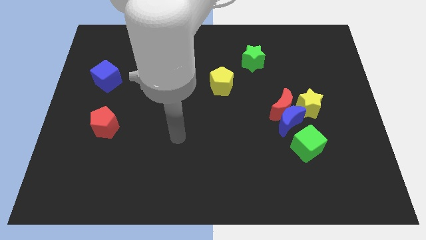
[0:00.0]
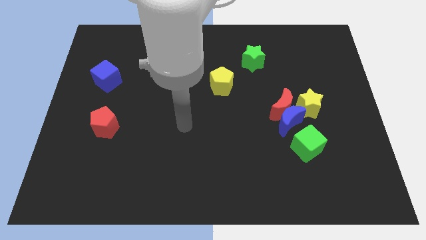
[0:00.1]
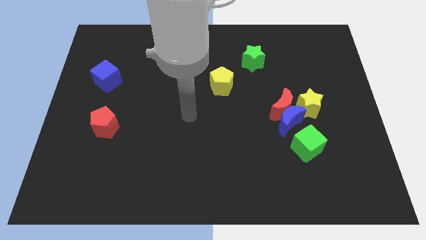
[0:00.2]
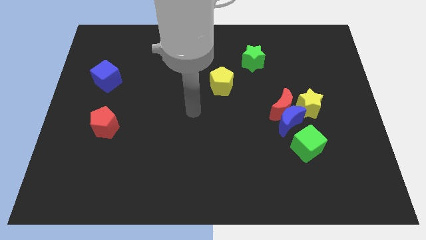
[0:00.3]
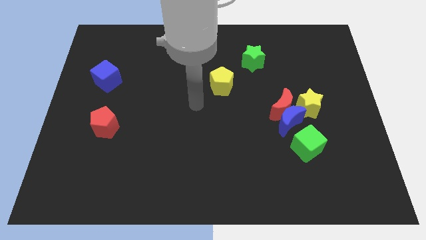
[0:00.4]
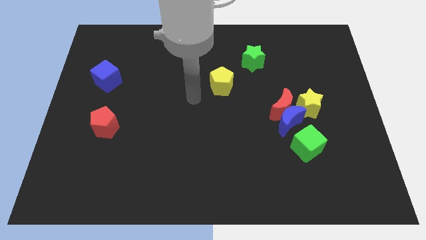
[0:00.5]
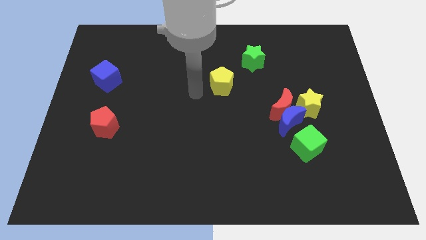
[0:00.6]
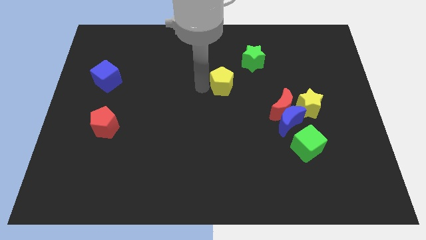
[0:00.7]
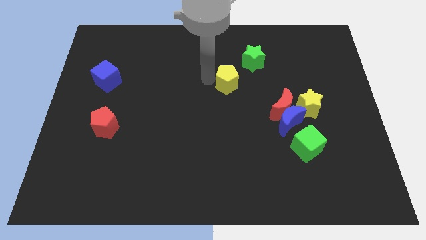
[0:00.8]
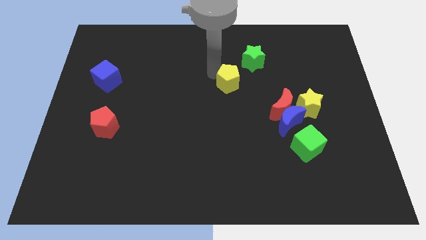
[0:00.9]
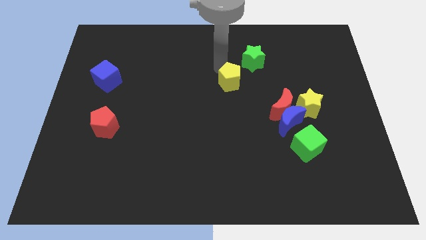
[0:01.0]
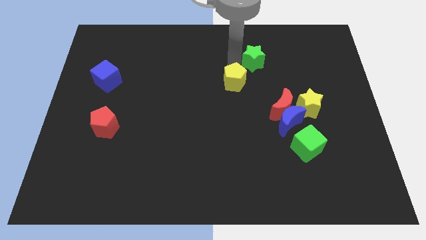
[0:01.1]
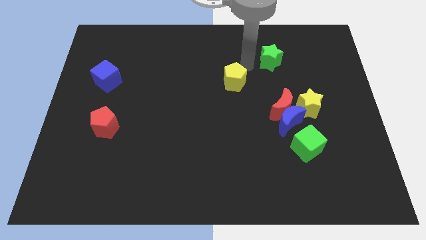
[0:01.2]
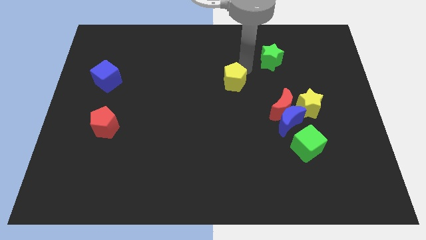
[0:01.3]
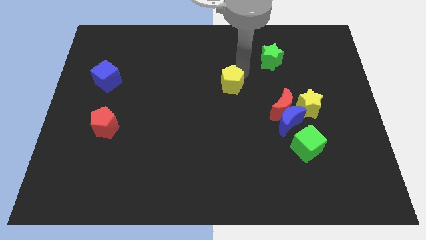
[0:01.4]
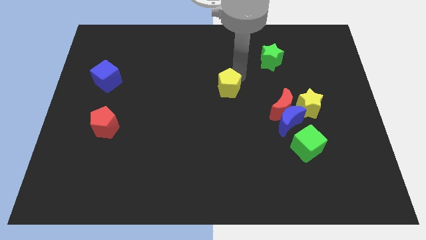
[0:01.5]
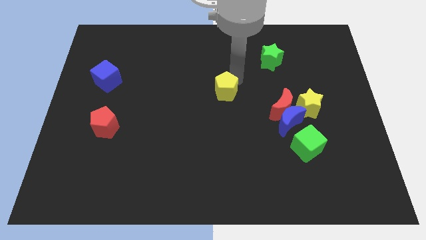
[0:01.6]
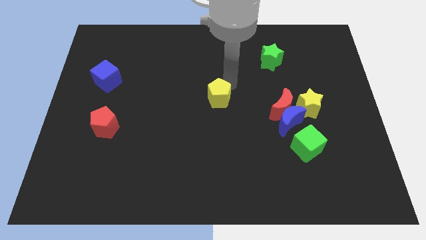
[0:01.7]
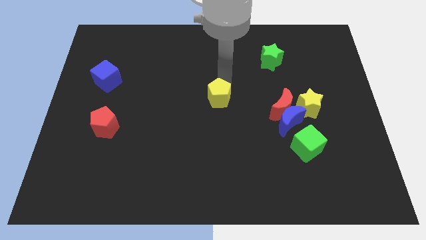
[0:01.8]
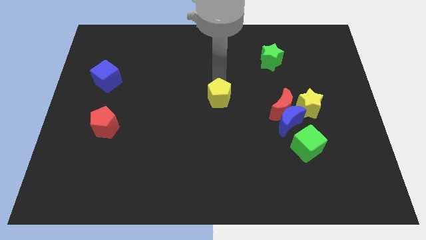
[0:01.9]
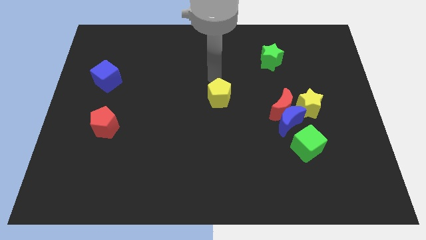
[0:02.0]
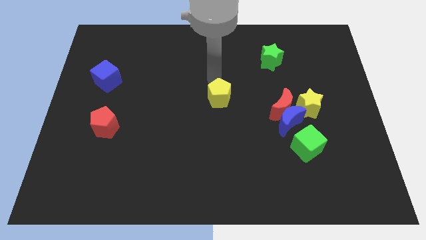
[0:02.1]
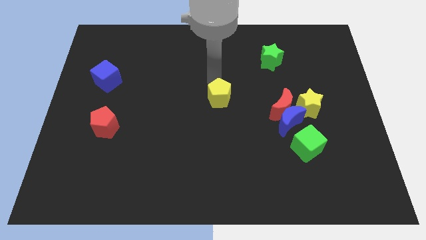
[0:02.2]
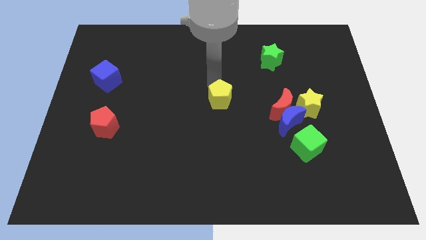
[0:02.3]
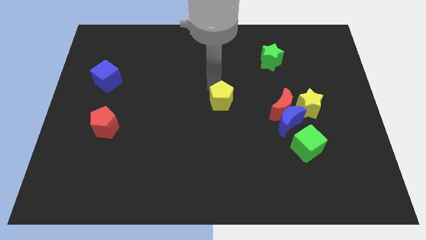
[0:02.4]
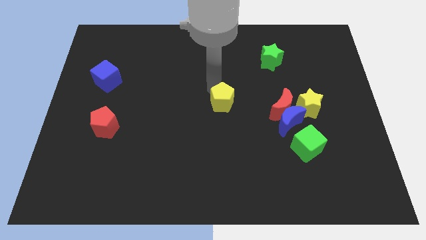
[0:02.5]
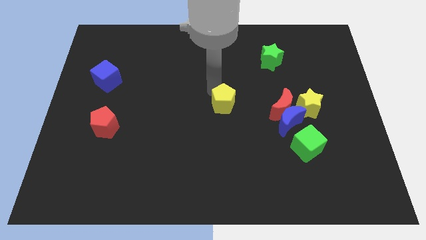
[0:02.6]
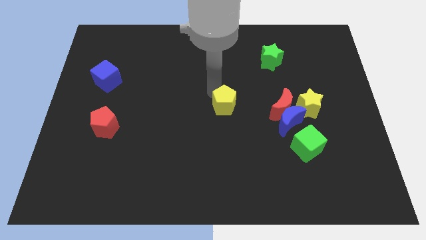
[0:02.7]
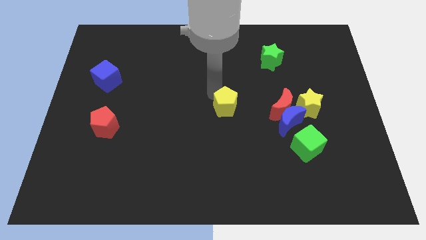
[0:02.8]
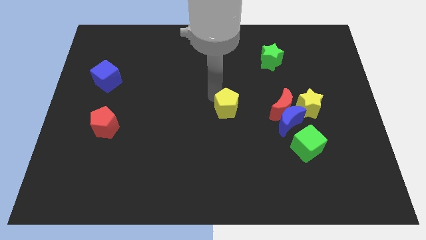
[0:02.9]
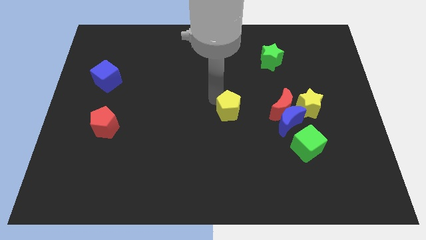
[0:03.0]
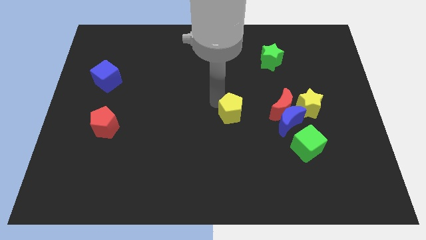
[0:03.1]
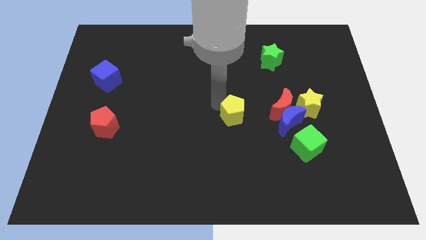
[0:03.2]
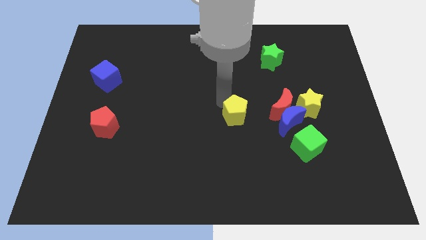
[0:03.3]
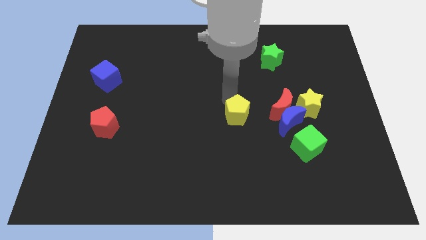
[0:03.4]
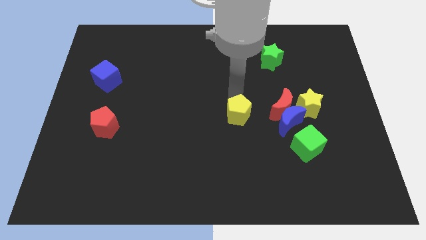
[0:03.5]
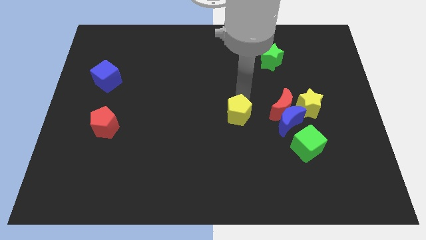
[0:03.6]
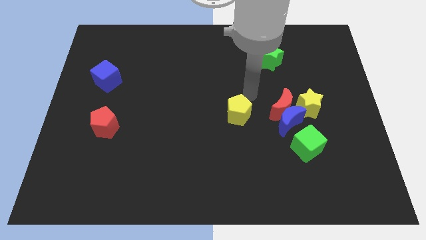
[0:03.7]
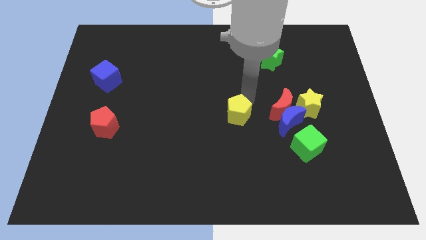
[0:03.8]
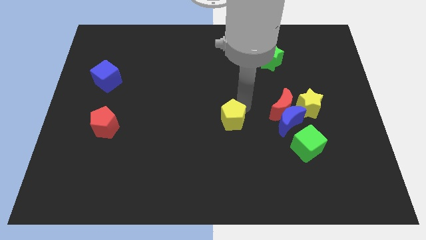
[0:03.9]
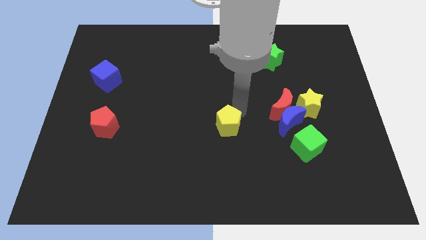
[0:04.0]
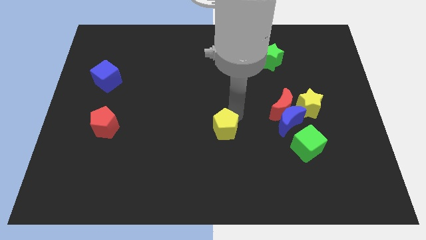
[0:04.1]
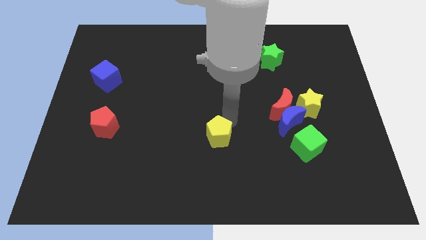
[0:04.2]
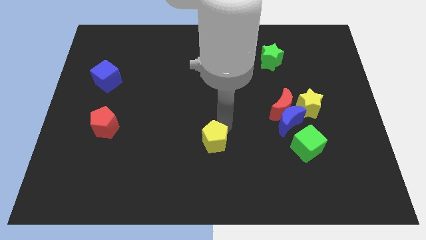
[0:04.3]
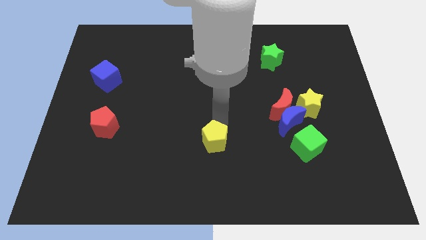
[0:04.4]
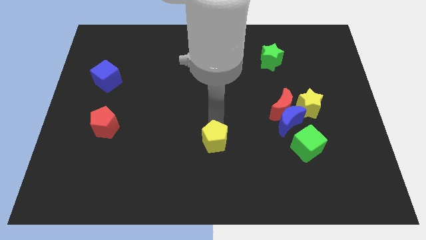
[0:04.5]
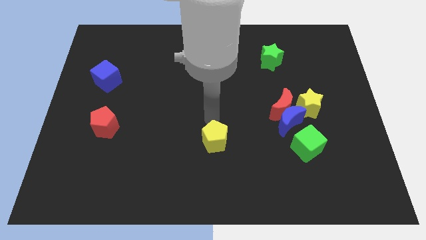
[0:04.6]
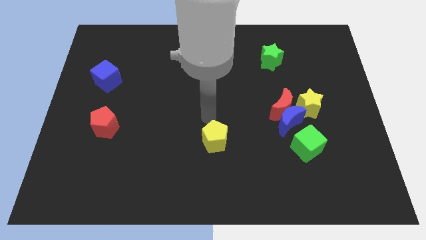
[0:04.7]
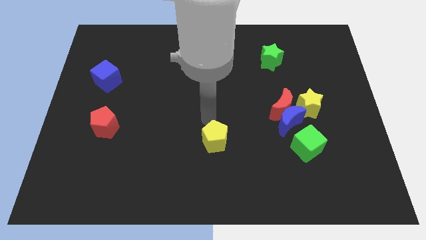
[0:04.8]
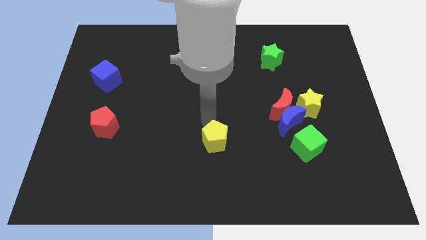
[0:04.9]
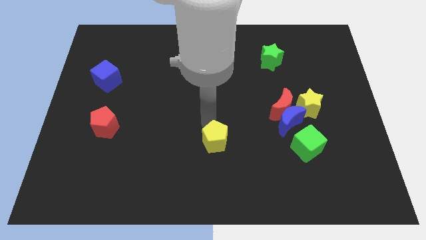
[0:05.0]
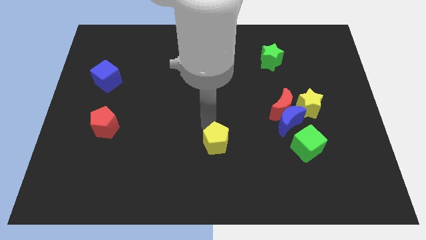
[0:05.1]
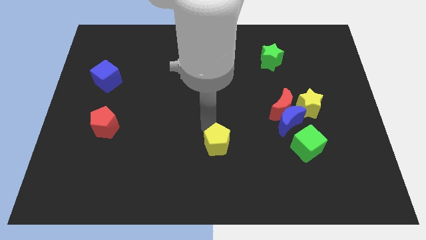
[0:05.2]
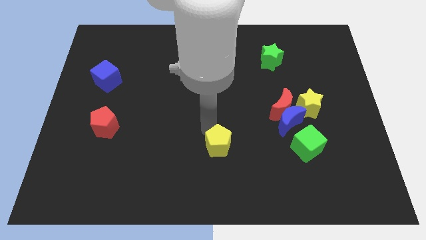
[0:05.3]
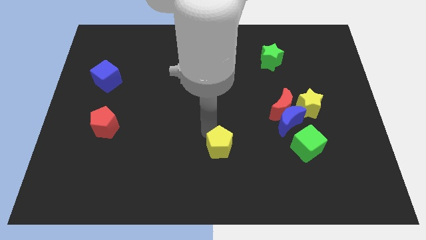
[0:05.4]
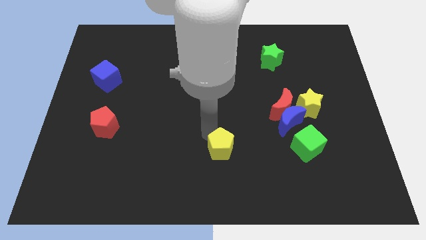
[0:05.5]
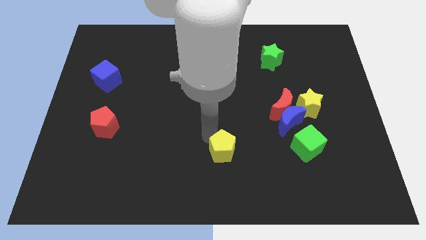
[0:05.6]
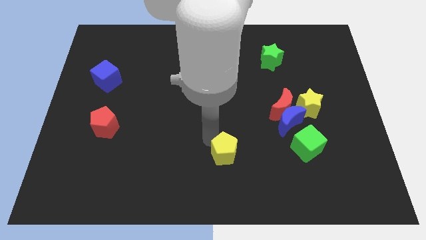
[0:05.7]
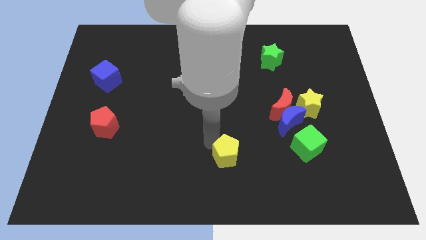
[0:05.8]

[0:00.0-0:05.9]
move the yellow pentagon to the bottom side
